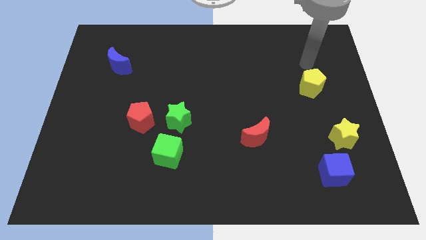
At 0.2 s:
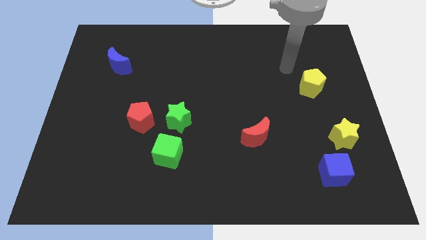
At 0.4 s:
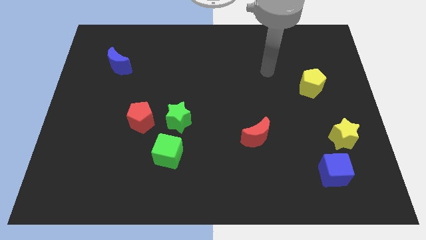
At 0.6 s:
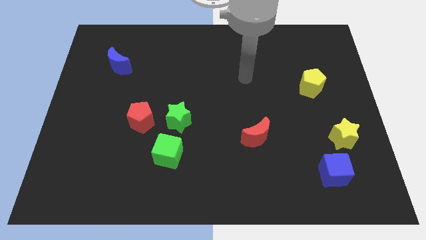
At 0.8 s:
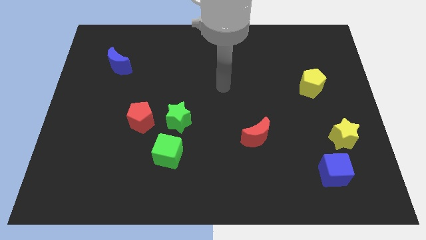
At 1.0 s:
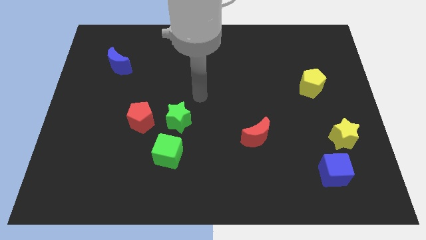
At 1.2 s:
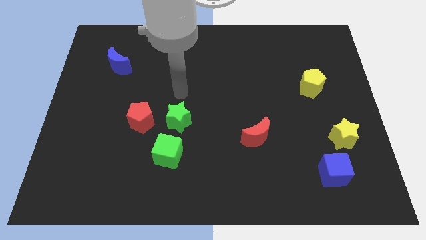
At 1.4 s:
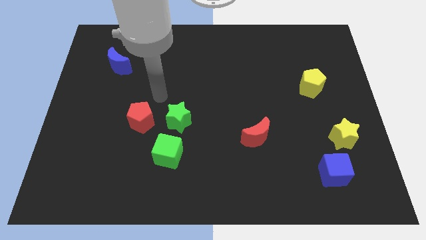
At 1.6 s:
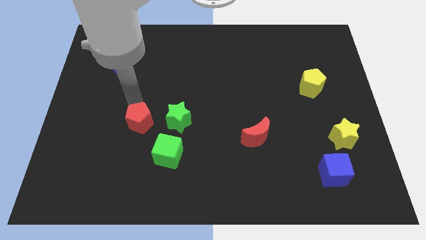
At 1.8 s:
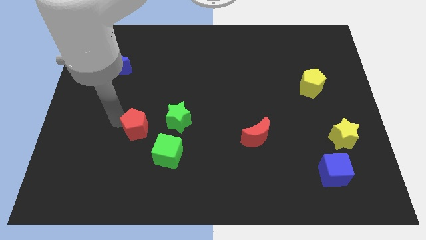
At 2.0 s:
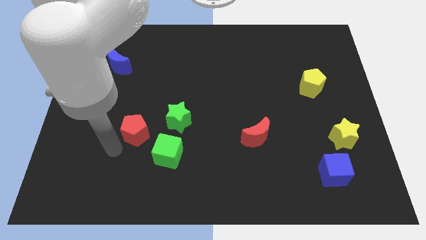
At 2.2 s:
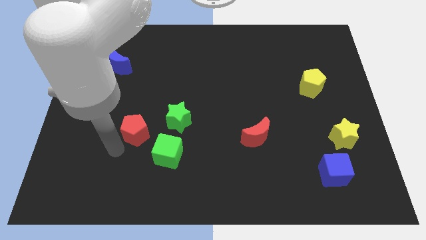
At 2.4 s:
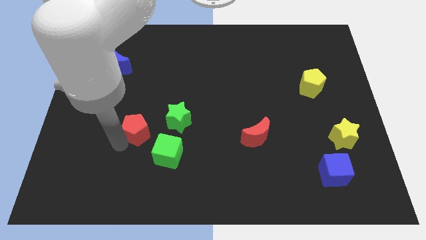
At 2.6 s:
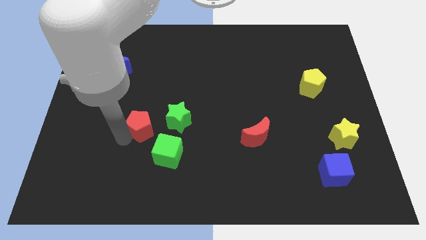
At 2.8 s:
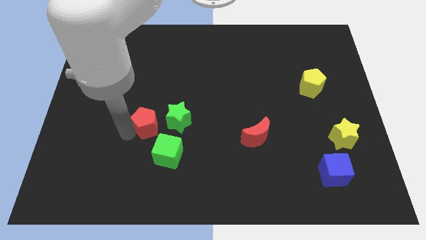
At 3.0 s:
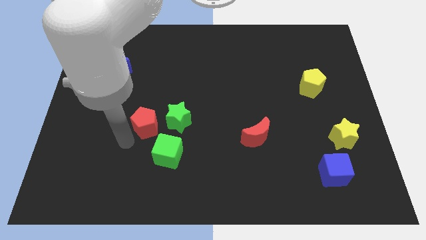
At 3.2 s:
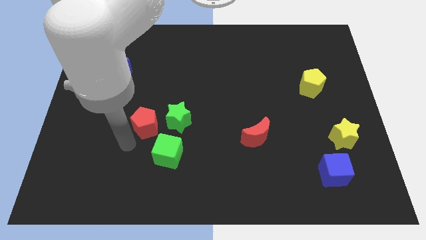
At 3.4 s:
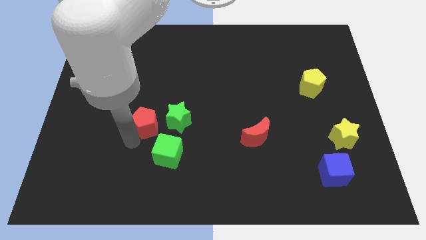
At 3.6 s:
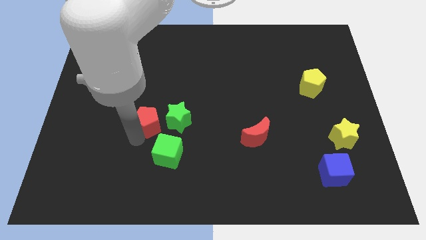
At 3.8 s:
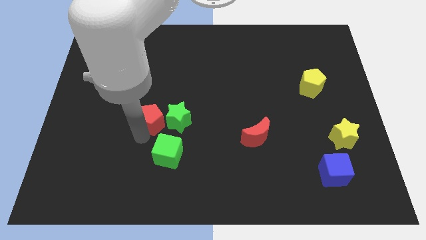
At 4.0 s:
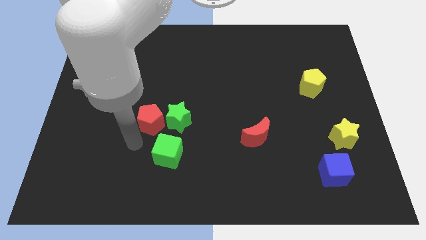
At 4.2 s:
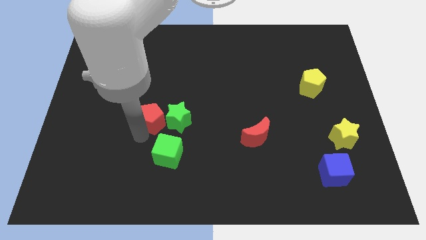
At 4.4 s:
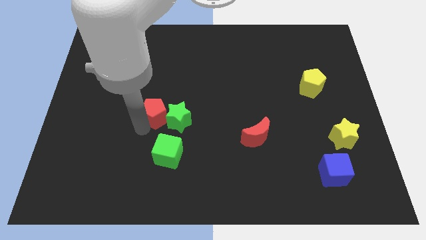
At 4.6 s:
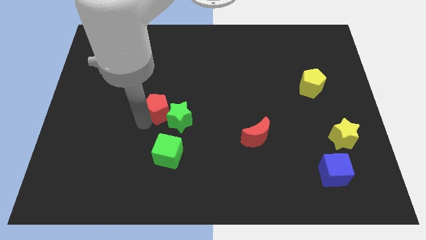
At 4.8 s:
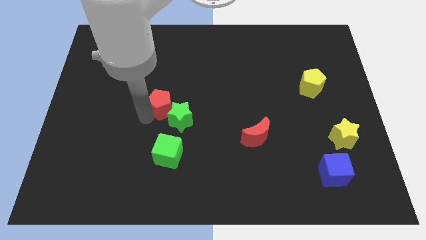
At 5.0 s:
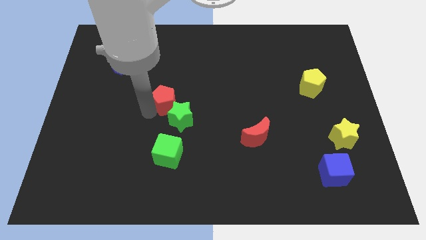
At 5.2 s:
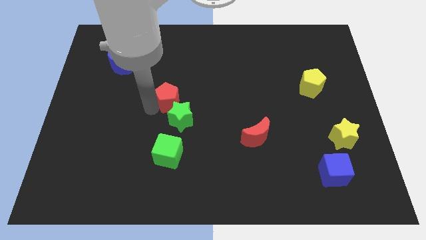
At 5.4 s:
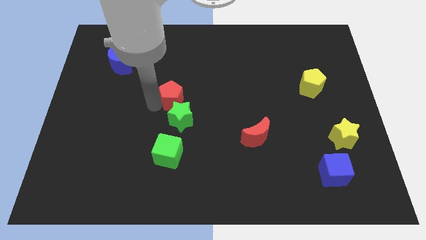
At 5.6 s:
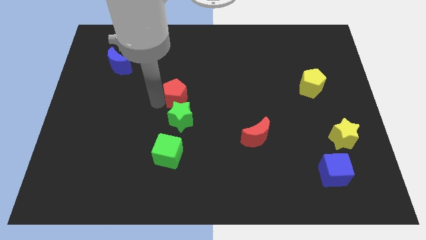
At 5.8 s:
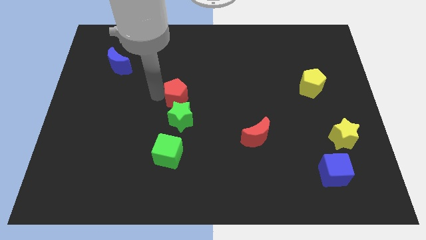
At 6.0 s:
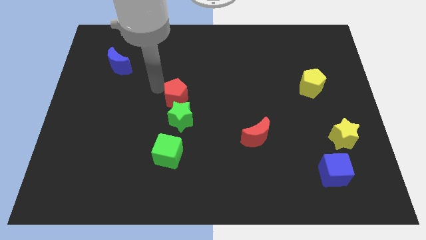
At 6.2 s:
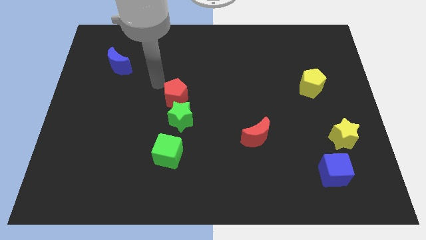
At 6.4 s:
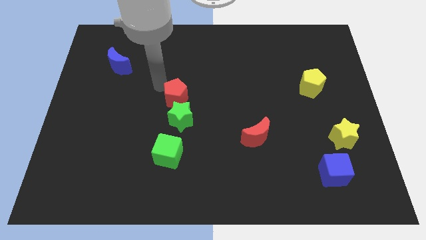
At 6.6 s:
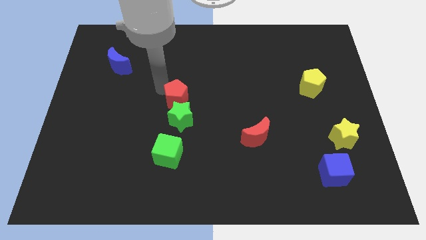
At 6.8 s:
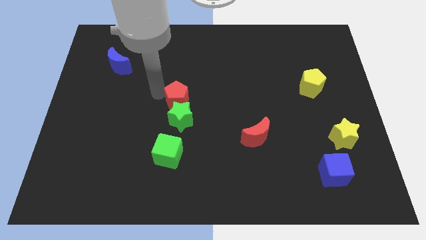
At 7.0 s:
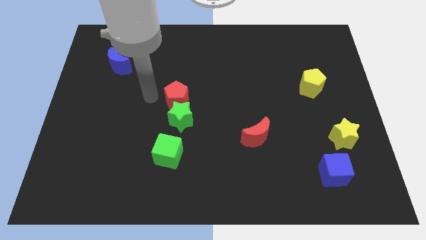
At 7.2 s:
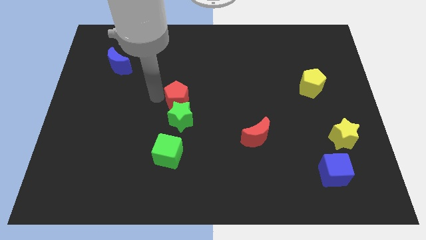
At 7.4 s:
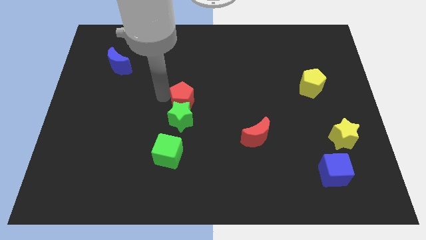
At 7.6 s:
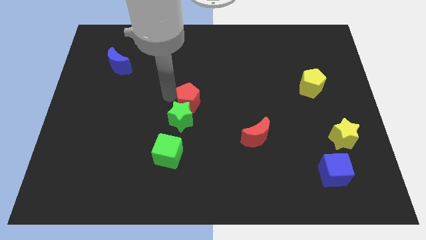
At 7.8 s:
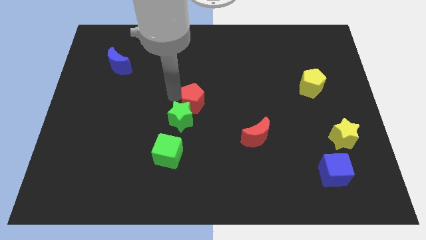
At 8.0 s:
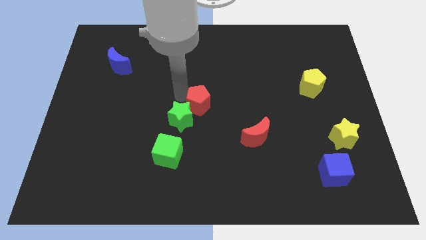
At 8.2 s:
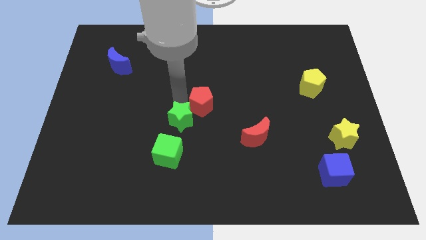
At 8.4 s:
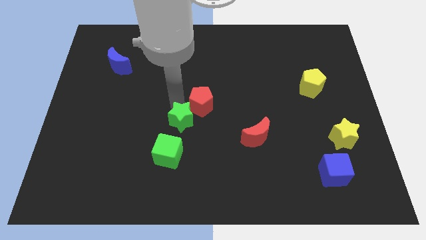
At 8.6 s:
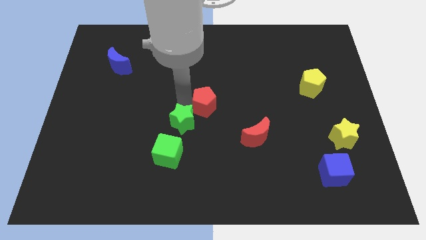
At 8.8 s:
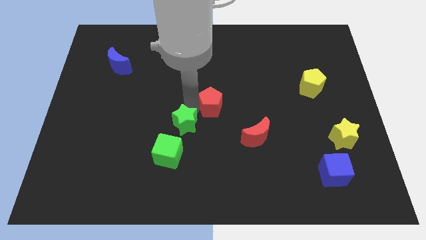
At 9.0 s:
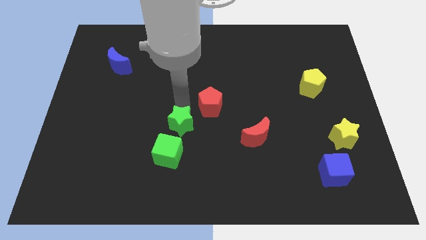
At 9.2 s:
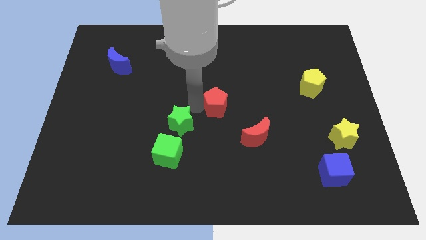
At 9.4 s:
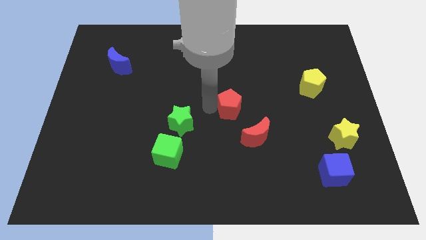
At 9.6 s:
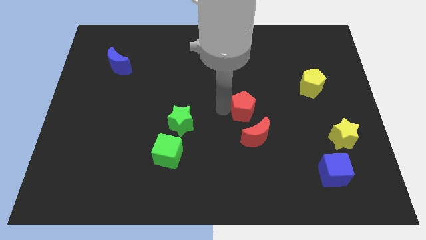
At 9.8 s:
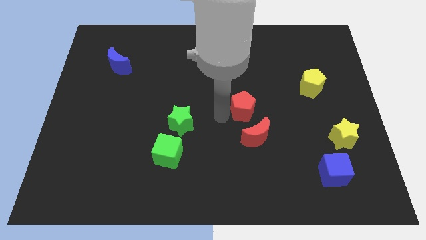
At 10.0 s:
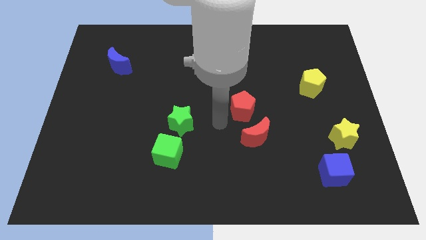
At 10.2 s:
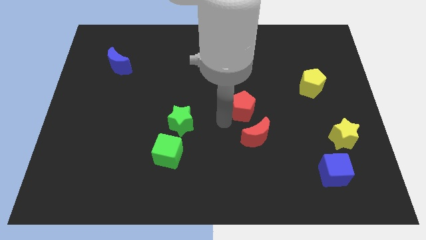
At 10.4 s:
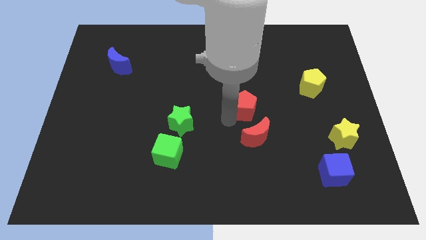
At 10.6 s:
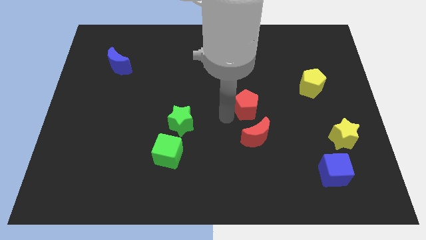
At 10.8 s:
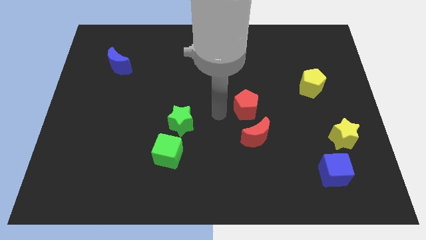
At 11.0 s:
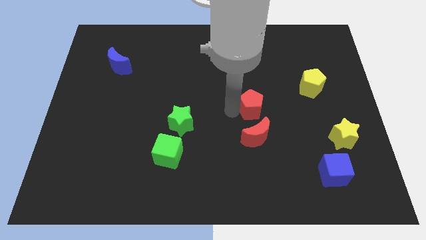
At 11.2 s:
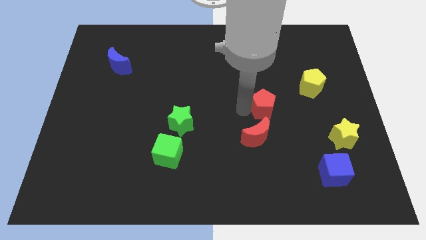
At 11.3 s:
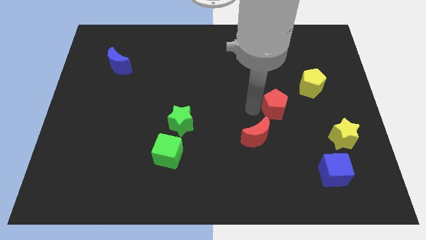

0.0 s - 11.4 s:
move the red pentagon to the bottom left side of the yellow pentagon

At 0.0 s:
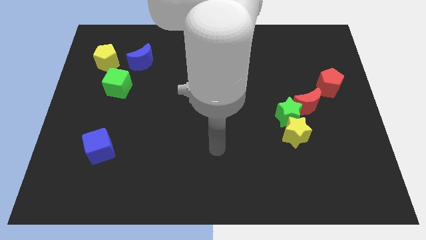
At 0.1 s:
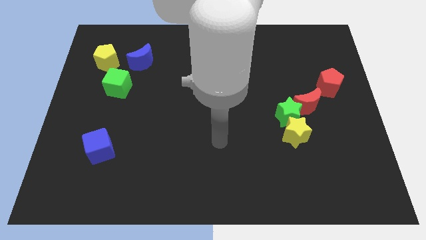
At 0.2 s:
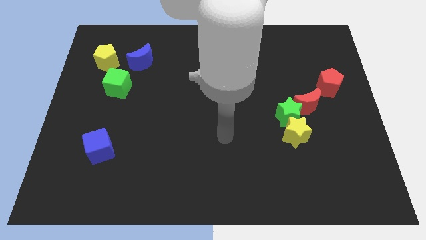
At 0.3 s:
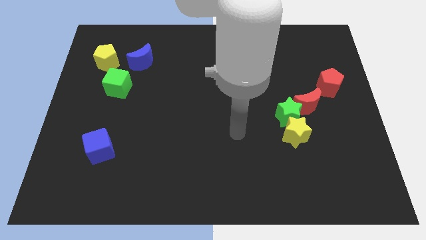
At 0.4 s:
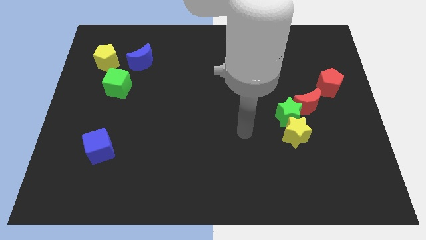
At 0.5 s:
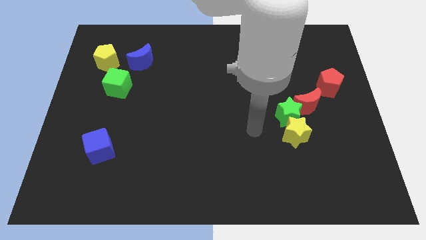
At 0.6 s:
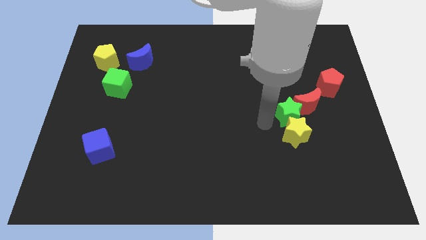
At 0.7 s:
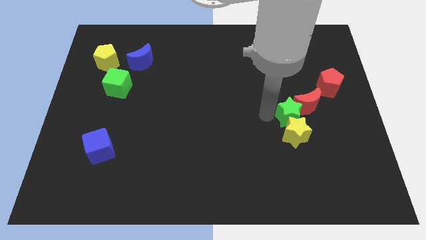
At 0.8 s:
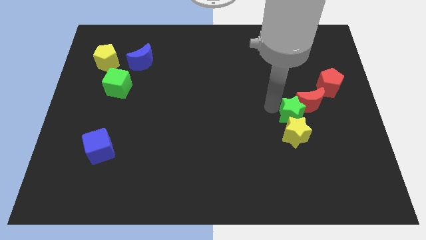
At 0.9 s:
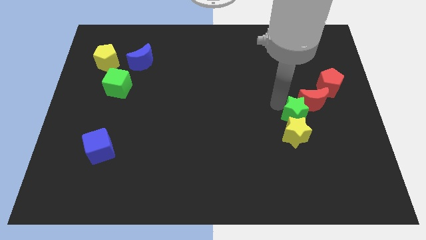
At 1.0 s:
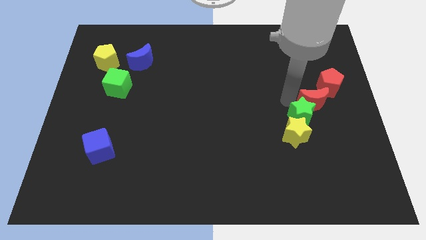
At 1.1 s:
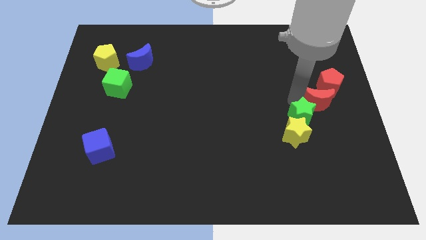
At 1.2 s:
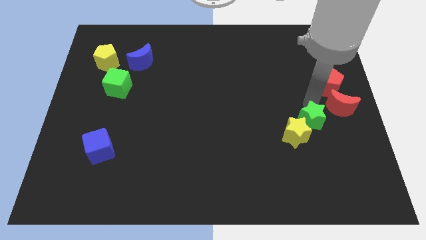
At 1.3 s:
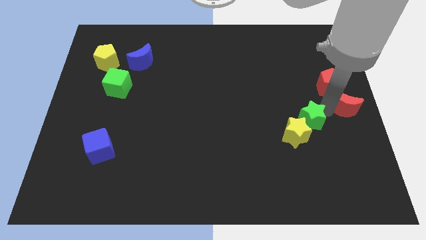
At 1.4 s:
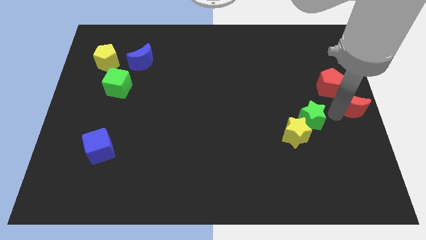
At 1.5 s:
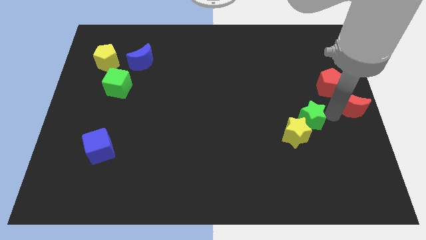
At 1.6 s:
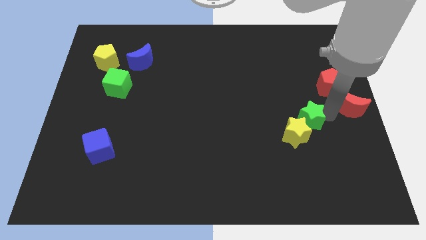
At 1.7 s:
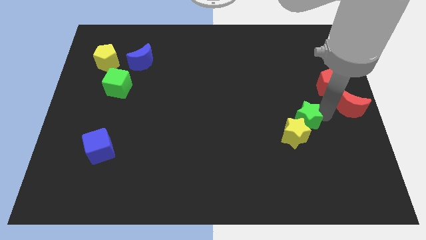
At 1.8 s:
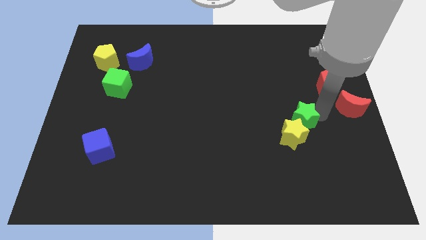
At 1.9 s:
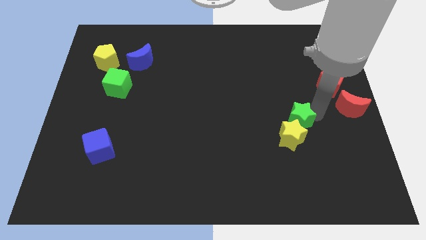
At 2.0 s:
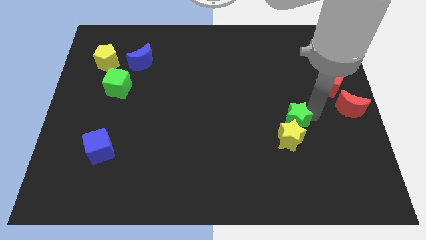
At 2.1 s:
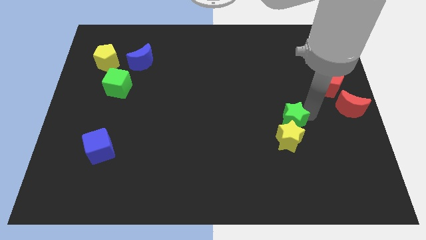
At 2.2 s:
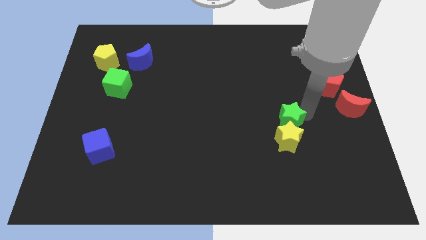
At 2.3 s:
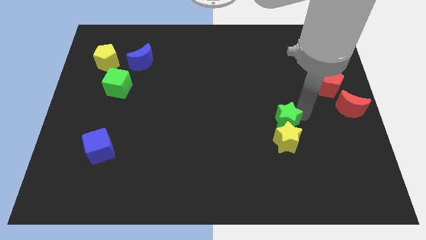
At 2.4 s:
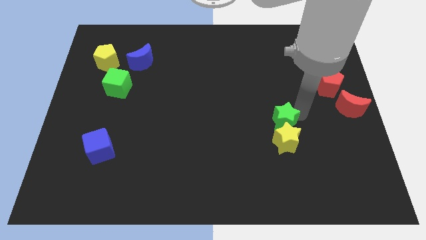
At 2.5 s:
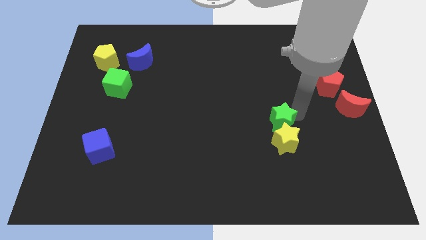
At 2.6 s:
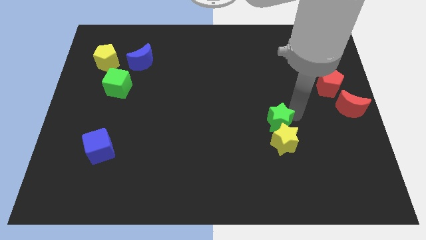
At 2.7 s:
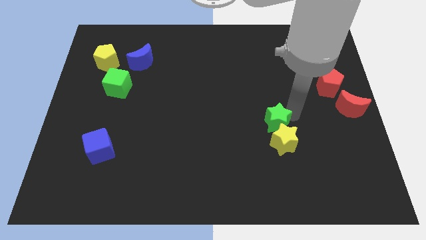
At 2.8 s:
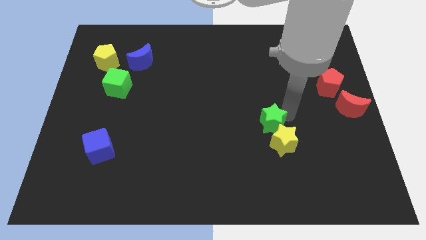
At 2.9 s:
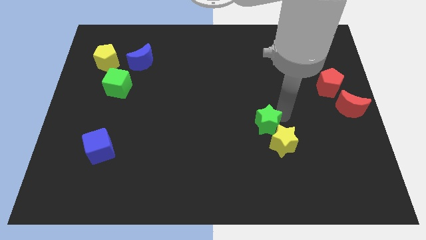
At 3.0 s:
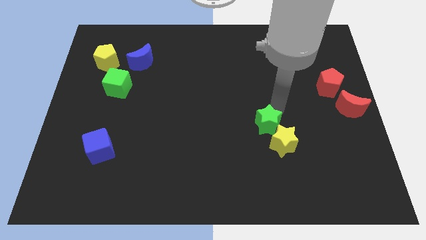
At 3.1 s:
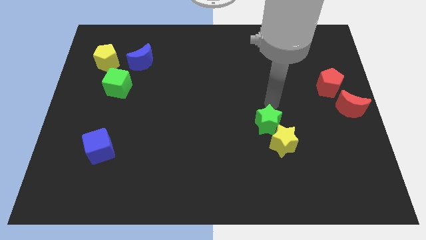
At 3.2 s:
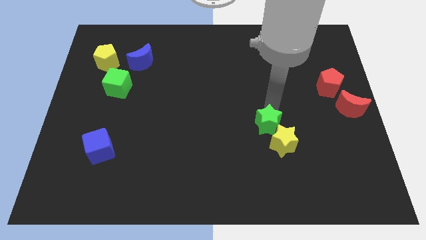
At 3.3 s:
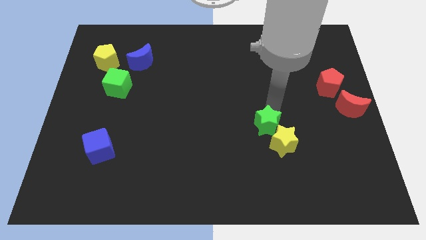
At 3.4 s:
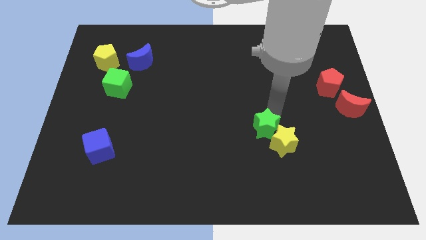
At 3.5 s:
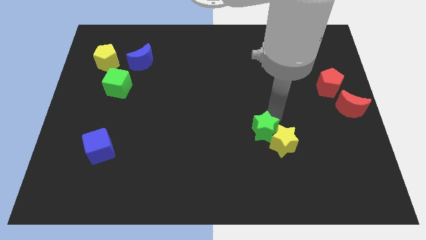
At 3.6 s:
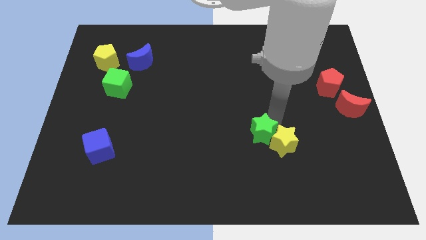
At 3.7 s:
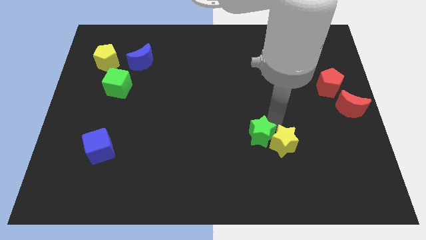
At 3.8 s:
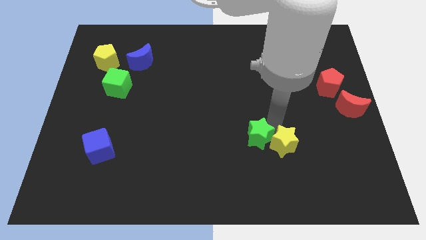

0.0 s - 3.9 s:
move the green star diagonally down and to the left of the yellow star
